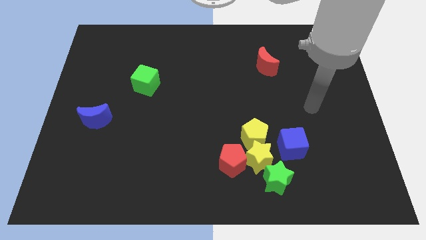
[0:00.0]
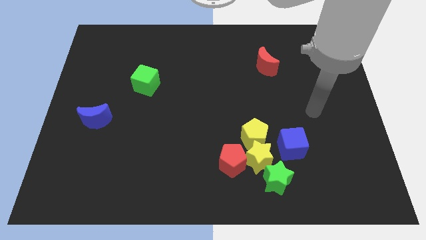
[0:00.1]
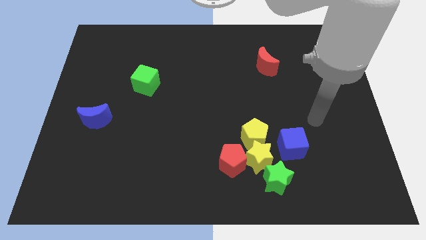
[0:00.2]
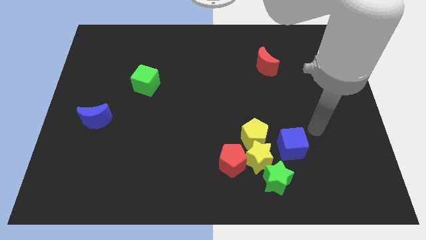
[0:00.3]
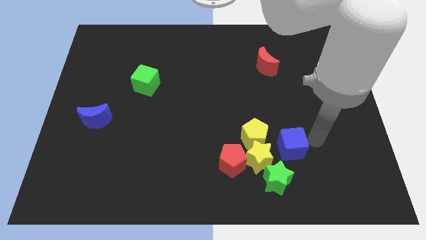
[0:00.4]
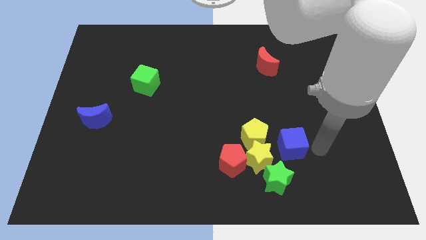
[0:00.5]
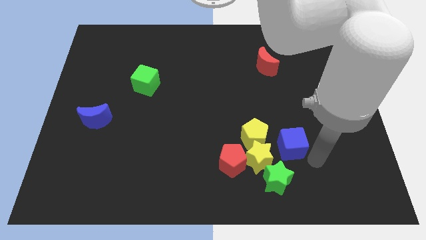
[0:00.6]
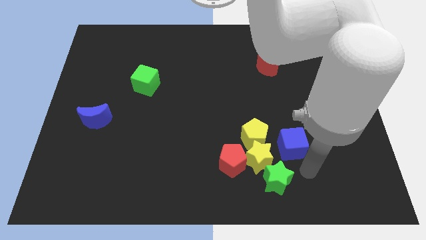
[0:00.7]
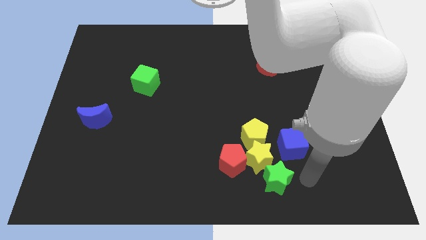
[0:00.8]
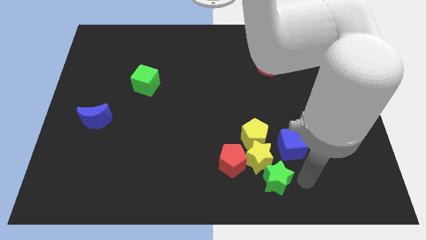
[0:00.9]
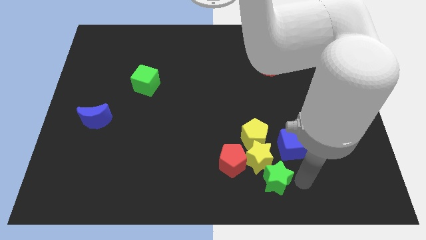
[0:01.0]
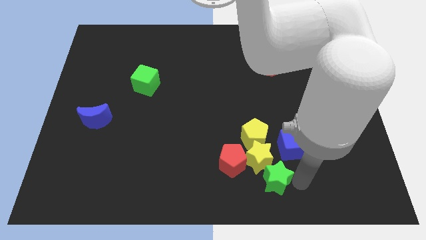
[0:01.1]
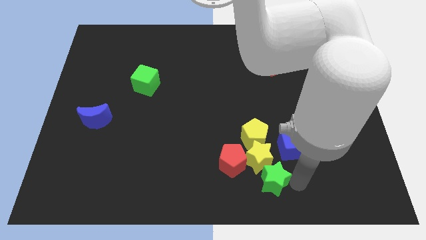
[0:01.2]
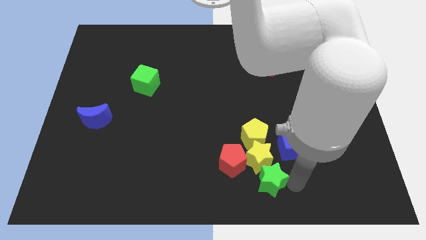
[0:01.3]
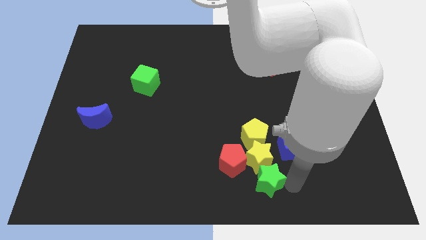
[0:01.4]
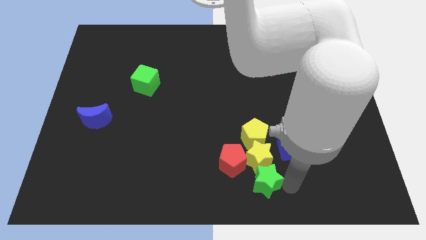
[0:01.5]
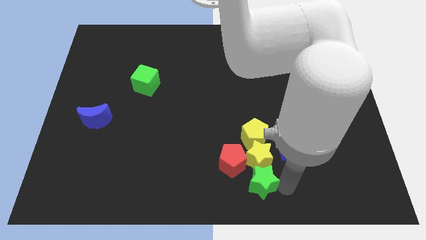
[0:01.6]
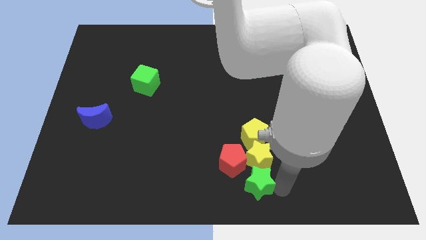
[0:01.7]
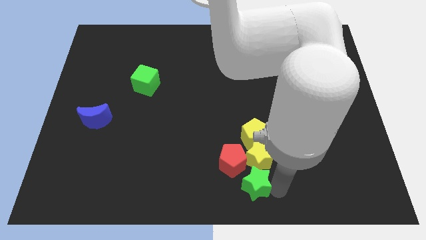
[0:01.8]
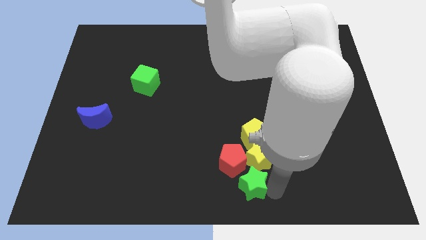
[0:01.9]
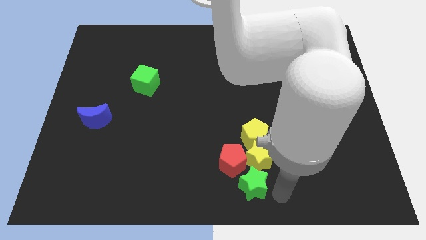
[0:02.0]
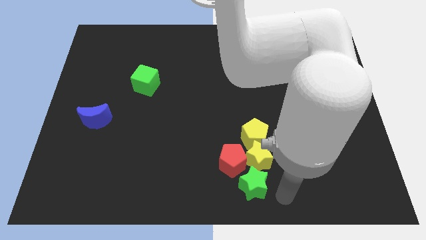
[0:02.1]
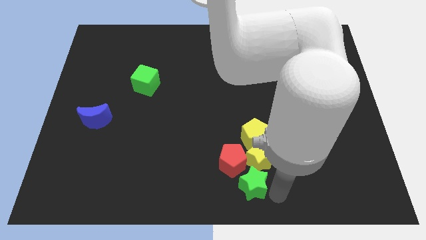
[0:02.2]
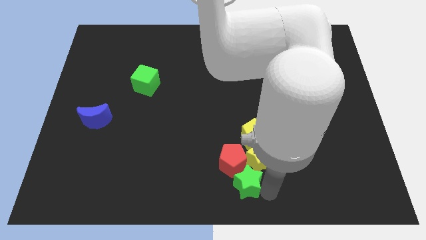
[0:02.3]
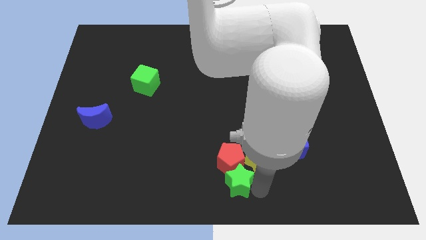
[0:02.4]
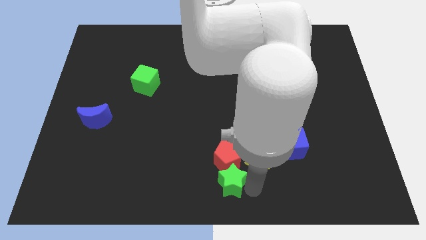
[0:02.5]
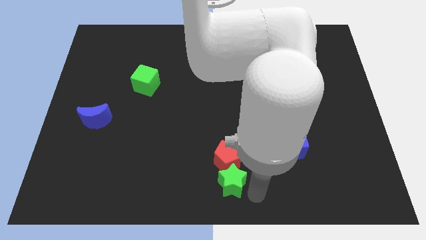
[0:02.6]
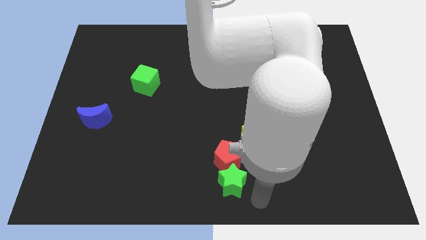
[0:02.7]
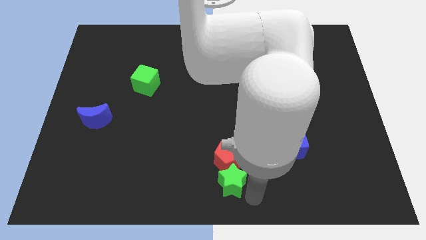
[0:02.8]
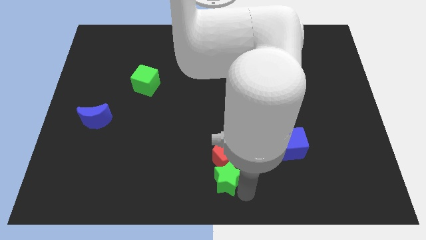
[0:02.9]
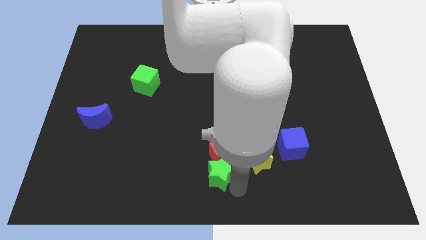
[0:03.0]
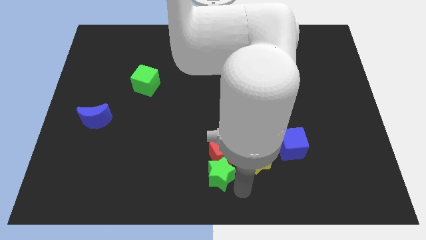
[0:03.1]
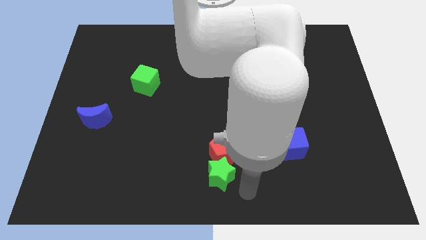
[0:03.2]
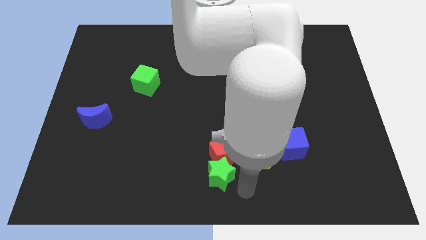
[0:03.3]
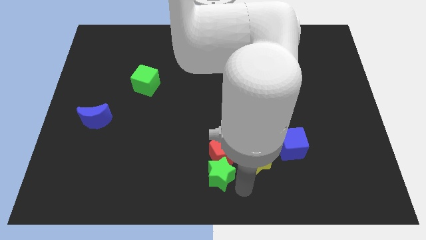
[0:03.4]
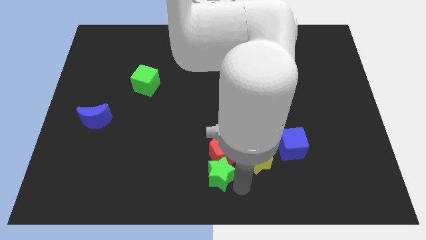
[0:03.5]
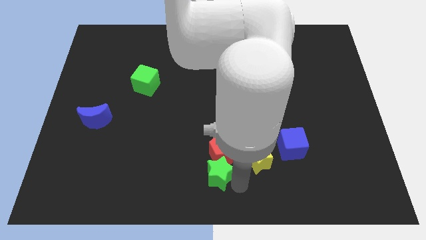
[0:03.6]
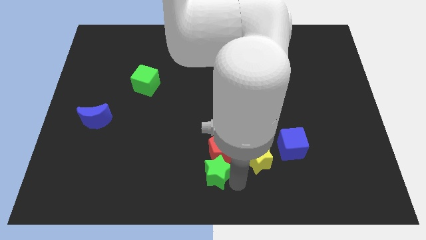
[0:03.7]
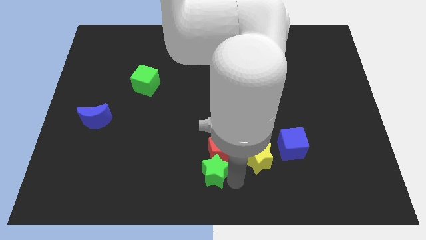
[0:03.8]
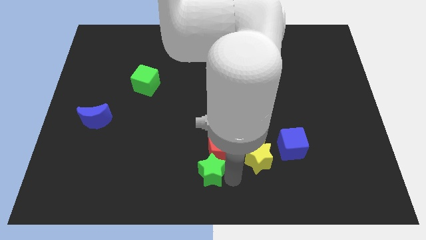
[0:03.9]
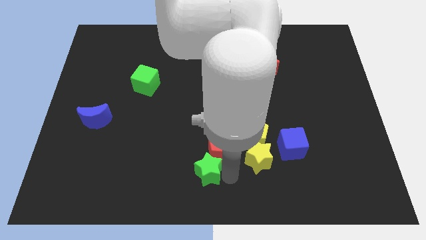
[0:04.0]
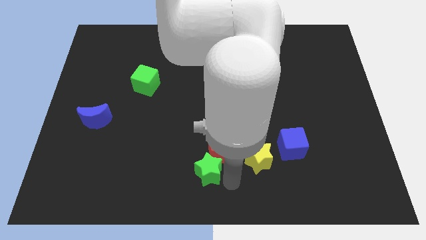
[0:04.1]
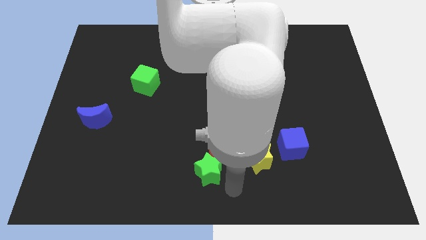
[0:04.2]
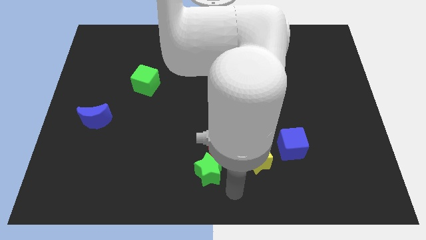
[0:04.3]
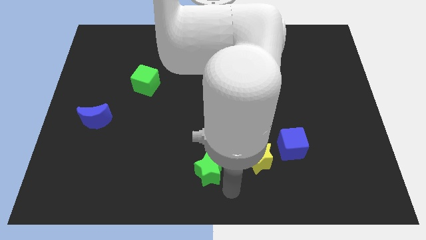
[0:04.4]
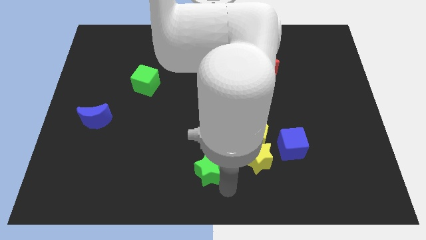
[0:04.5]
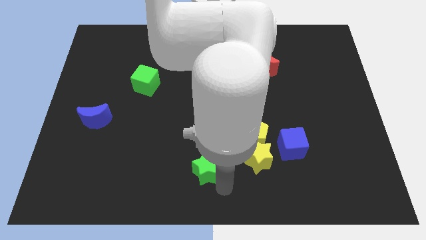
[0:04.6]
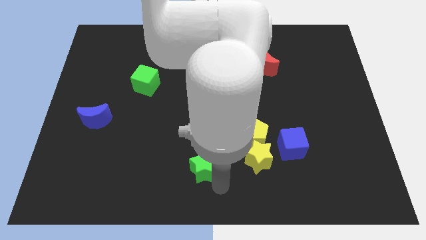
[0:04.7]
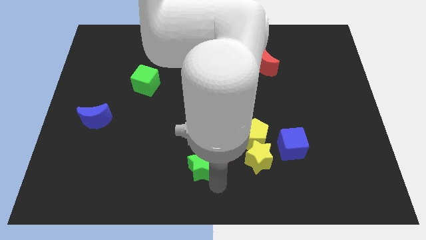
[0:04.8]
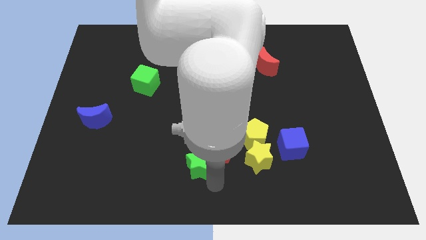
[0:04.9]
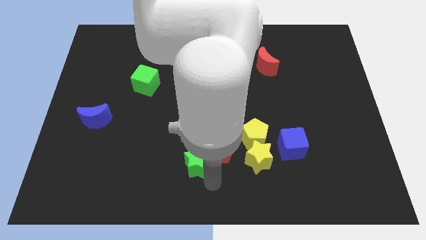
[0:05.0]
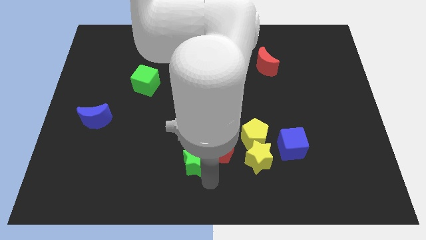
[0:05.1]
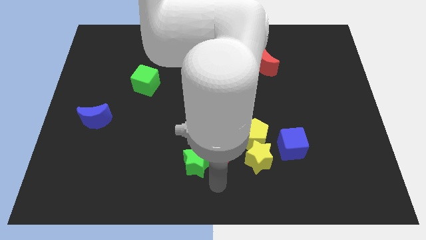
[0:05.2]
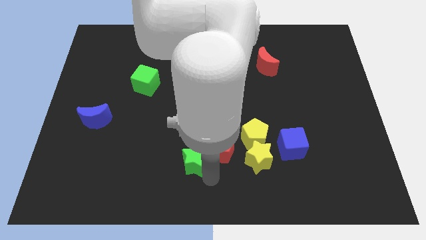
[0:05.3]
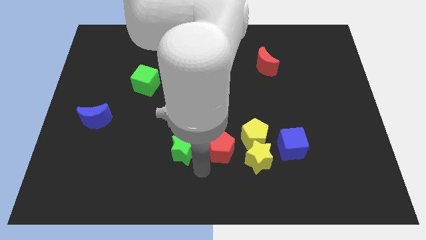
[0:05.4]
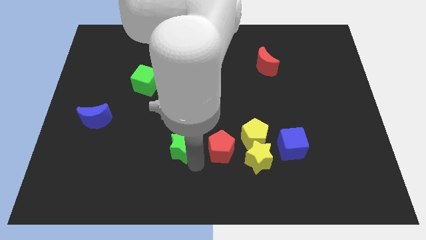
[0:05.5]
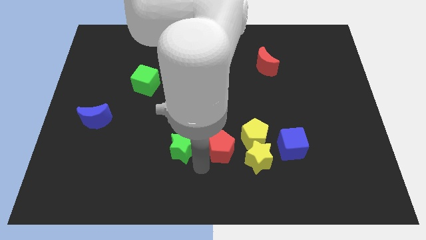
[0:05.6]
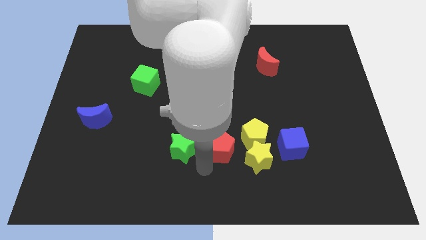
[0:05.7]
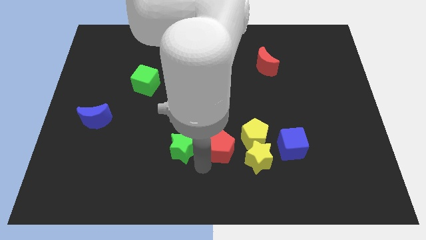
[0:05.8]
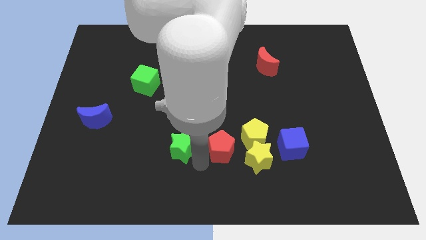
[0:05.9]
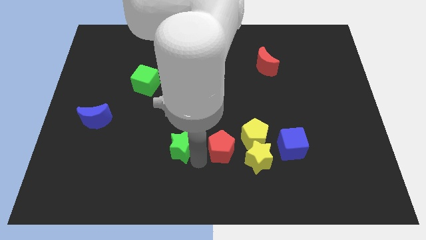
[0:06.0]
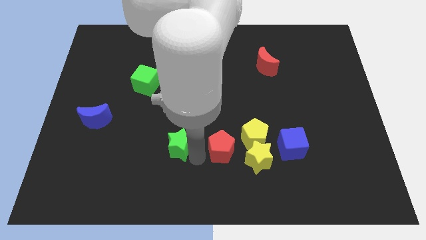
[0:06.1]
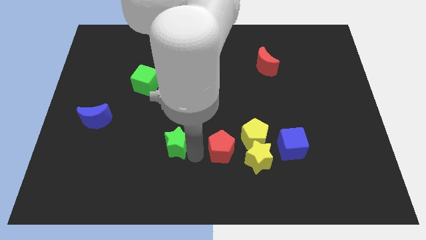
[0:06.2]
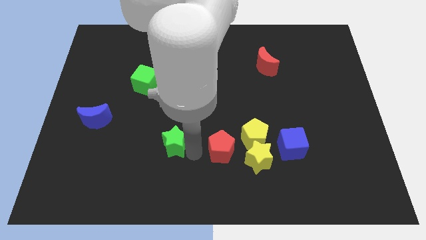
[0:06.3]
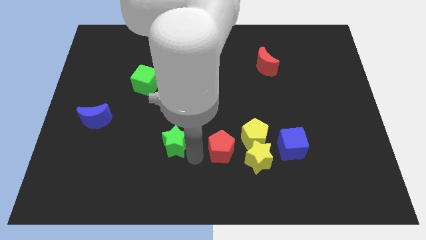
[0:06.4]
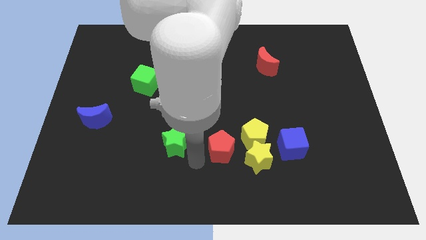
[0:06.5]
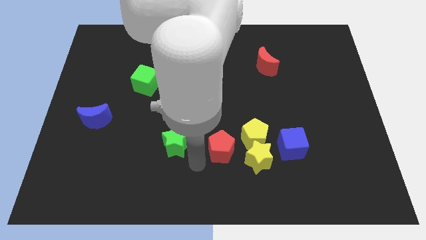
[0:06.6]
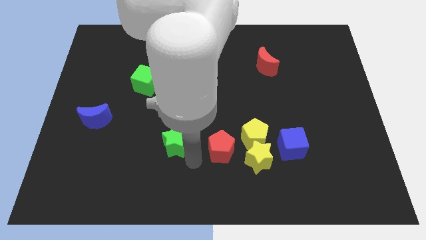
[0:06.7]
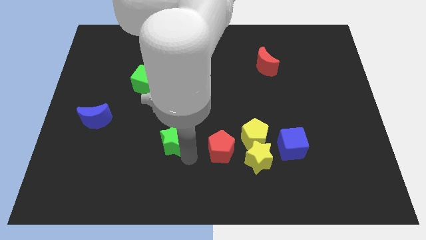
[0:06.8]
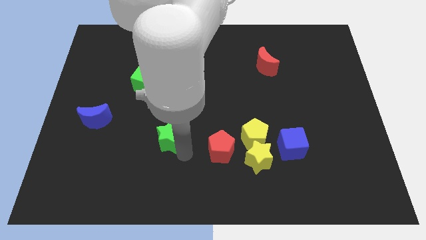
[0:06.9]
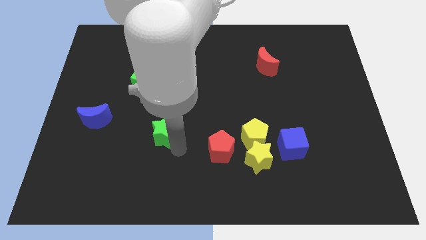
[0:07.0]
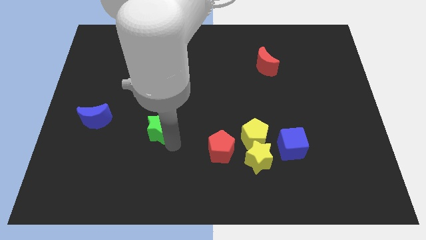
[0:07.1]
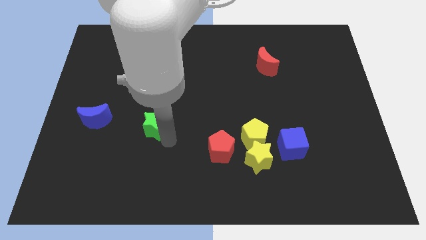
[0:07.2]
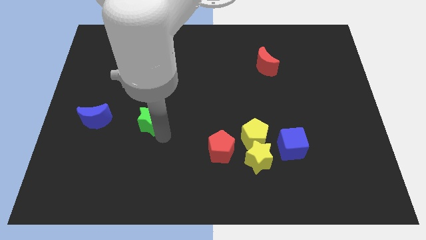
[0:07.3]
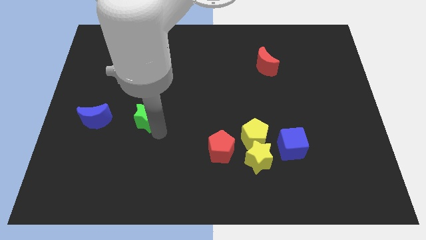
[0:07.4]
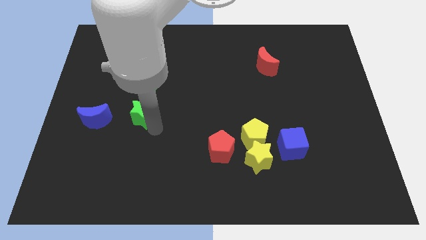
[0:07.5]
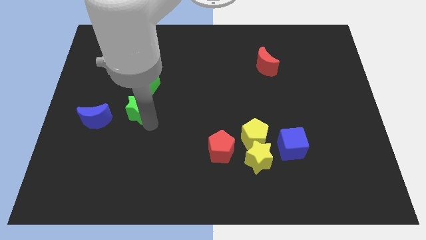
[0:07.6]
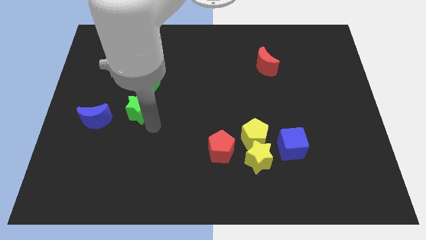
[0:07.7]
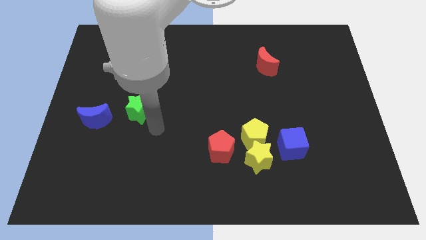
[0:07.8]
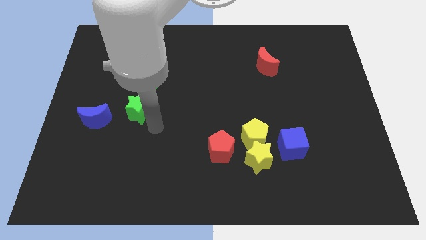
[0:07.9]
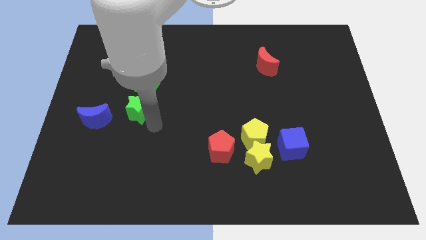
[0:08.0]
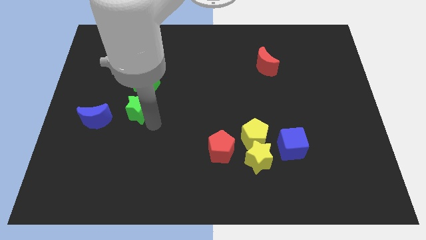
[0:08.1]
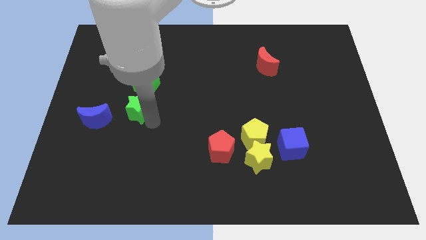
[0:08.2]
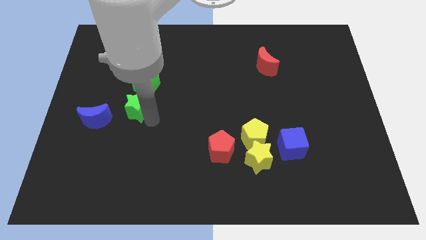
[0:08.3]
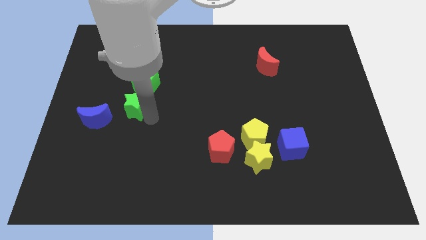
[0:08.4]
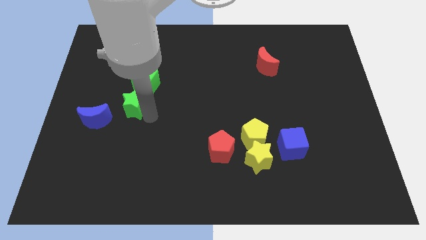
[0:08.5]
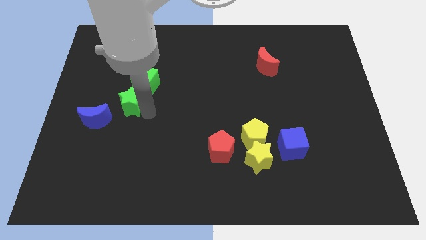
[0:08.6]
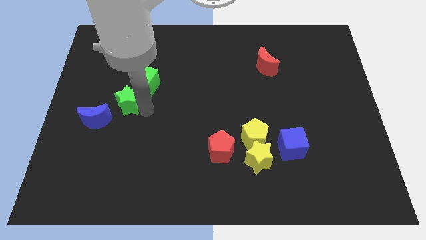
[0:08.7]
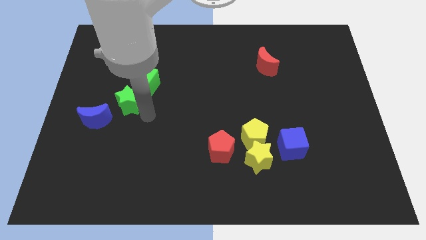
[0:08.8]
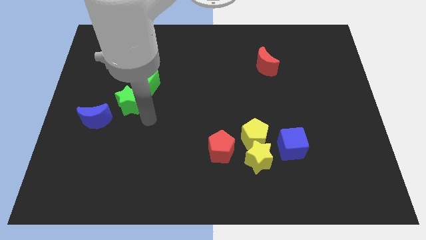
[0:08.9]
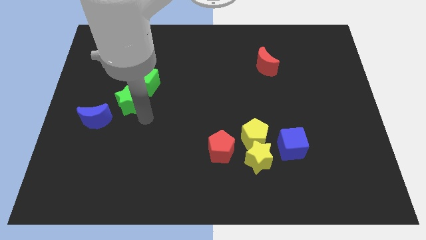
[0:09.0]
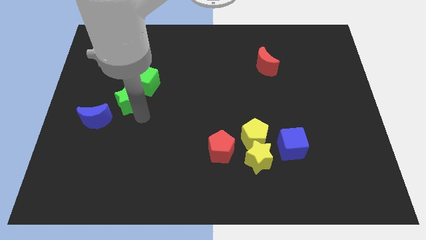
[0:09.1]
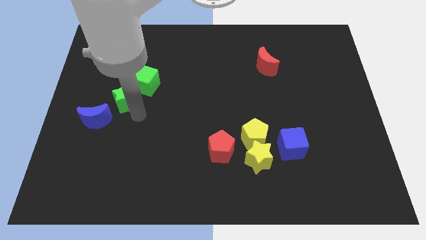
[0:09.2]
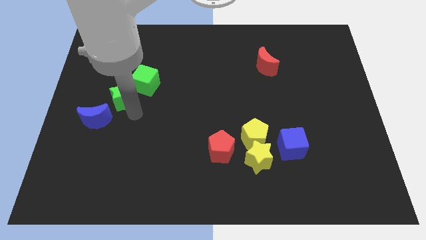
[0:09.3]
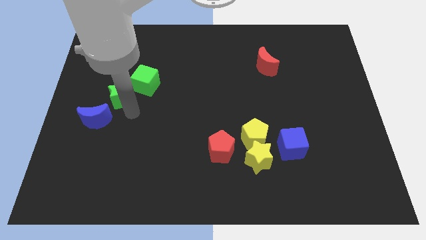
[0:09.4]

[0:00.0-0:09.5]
move the green star to the top side of the blue moon
